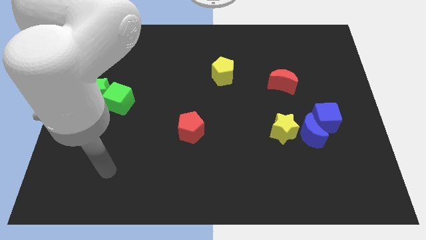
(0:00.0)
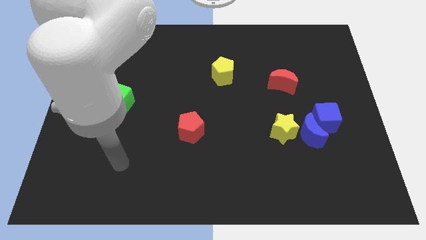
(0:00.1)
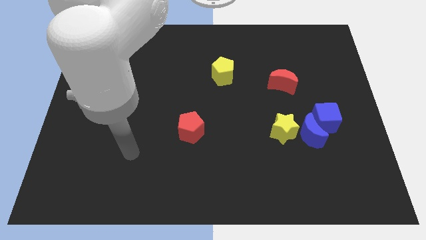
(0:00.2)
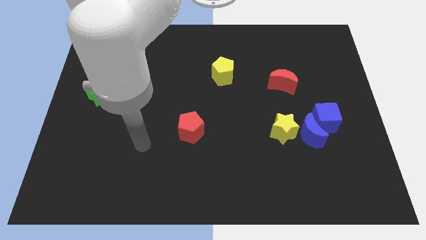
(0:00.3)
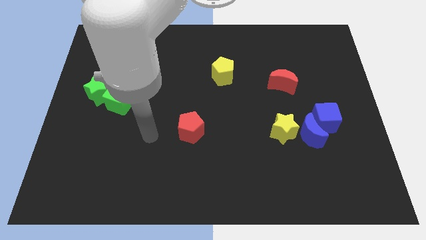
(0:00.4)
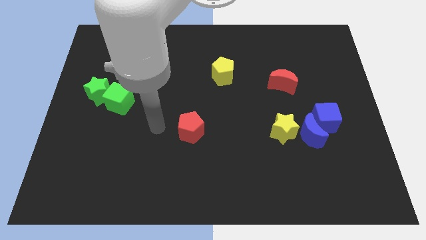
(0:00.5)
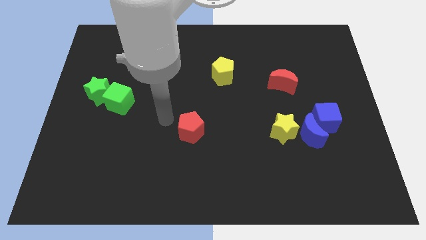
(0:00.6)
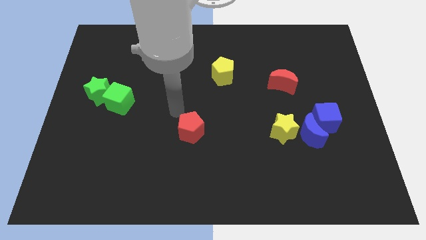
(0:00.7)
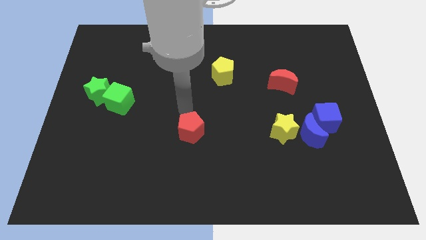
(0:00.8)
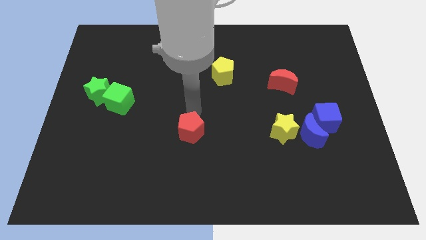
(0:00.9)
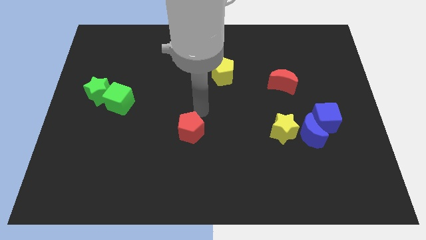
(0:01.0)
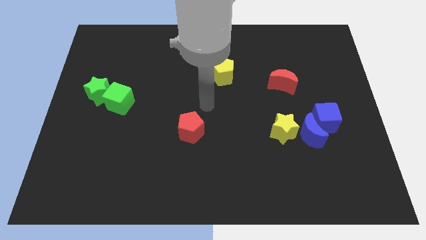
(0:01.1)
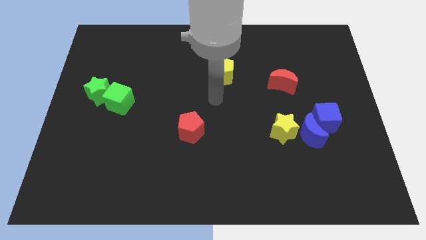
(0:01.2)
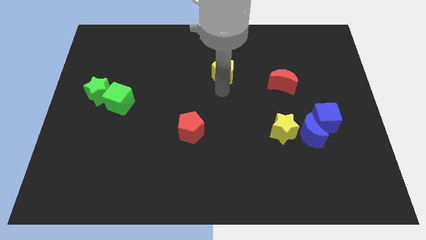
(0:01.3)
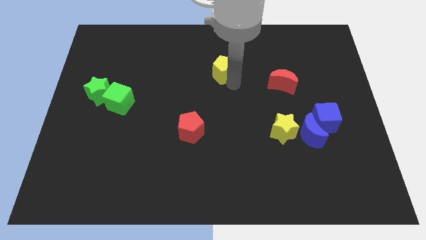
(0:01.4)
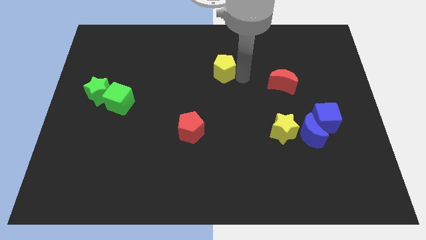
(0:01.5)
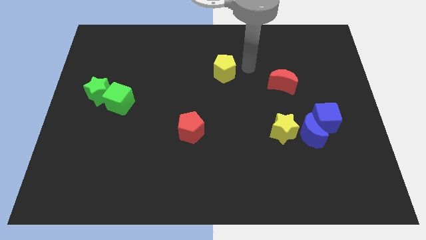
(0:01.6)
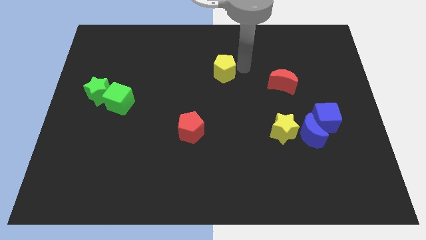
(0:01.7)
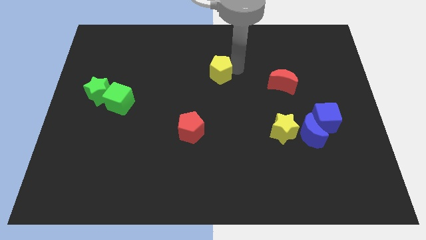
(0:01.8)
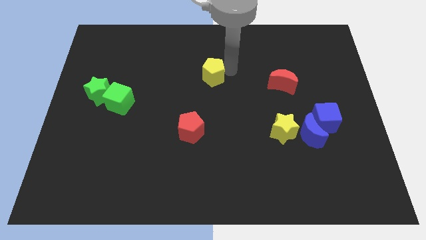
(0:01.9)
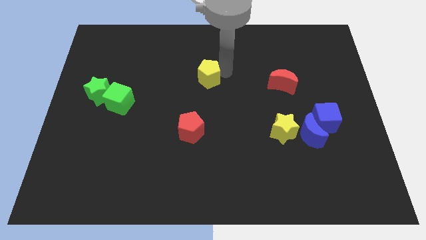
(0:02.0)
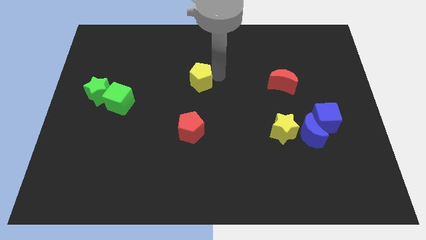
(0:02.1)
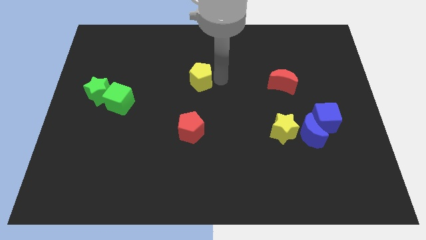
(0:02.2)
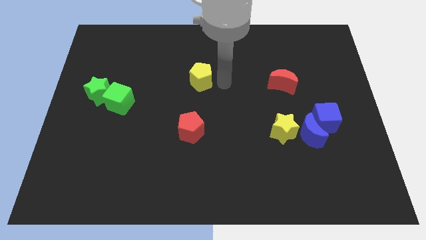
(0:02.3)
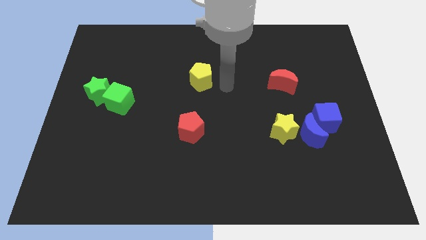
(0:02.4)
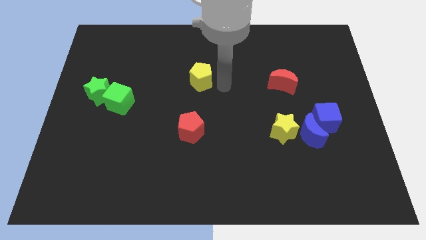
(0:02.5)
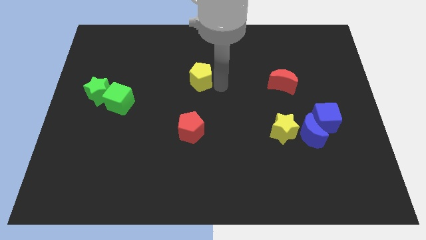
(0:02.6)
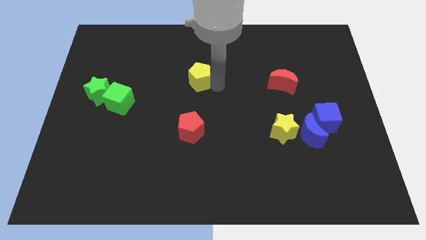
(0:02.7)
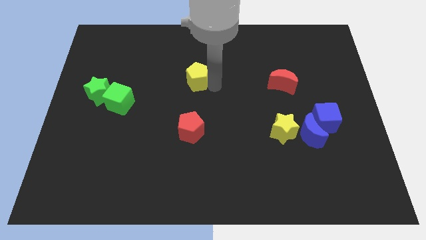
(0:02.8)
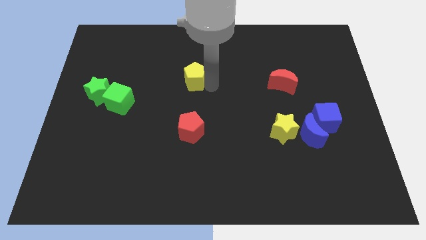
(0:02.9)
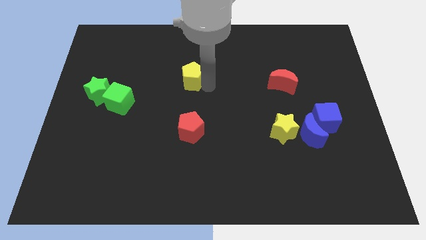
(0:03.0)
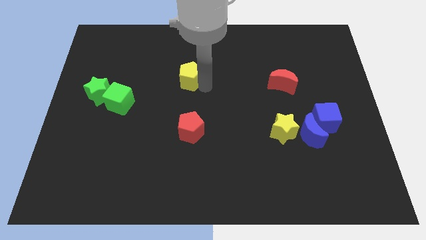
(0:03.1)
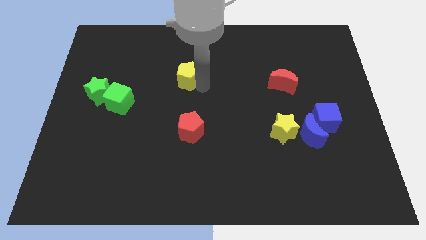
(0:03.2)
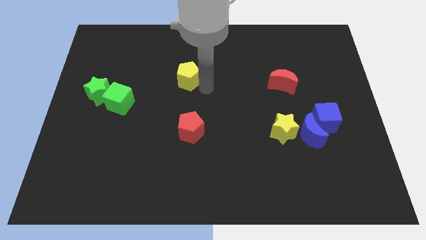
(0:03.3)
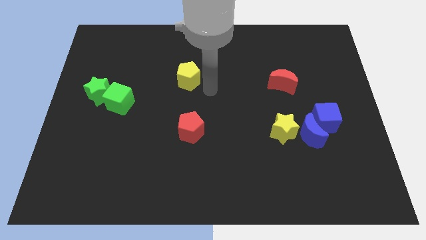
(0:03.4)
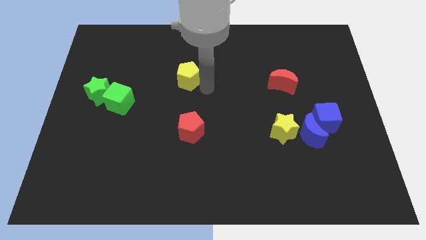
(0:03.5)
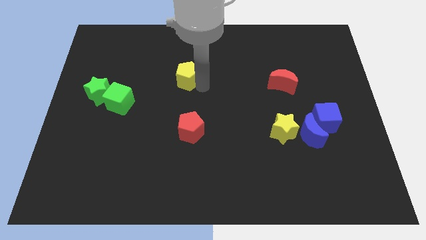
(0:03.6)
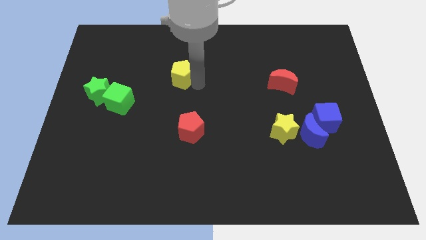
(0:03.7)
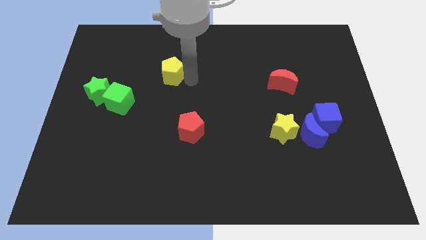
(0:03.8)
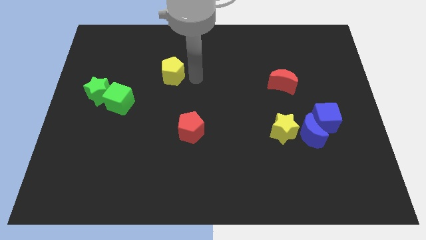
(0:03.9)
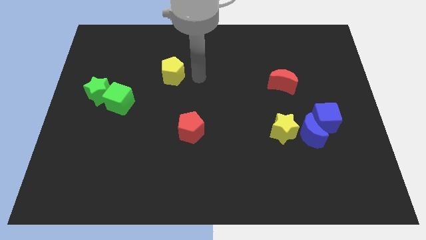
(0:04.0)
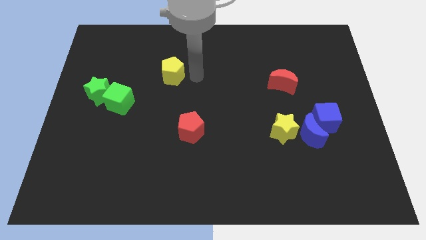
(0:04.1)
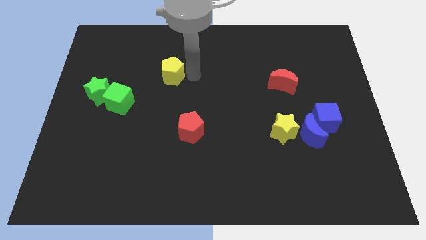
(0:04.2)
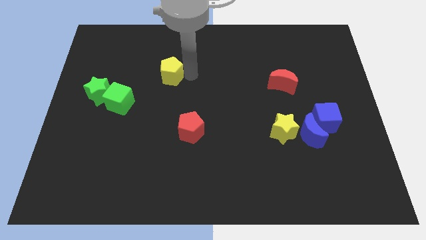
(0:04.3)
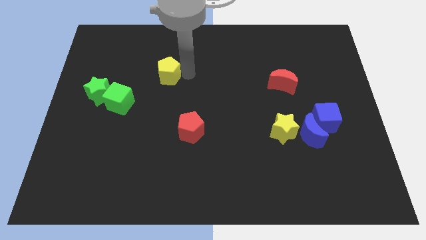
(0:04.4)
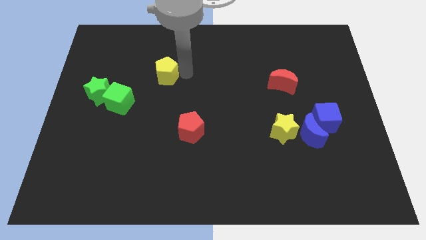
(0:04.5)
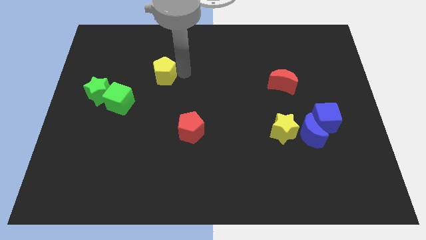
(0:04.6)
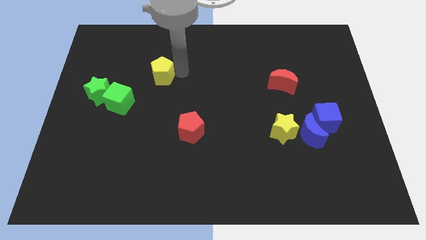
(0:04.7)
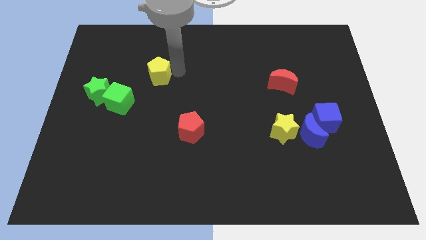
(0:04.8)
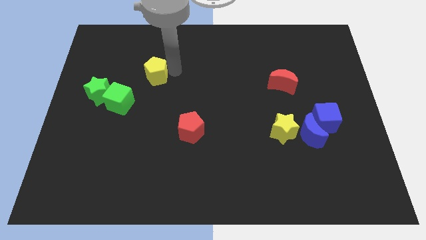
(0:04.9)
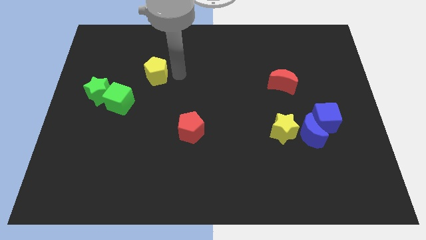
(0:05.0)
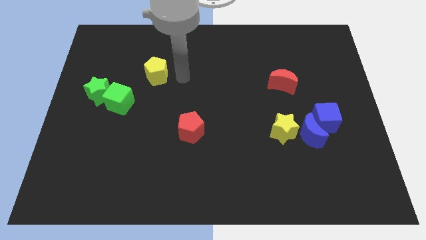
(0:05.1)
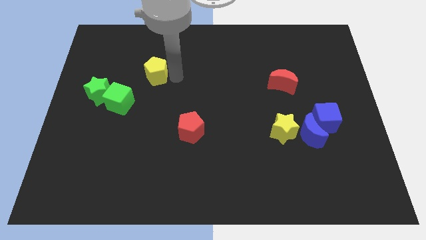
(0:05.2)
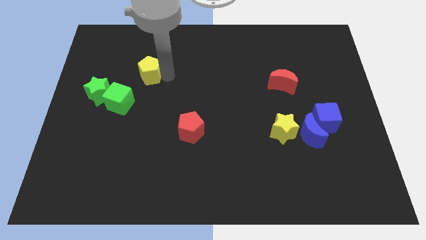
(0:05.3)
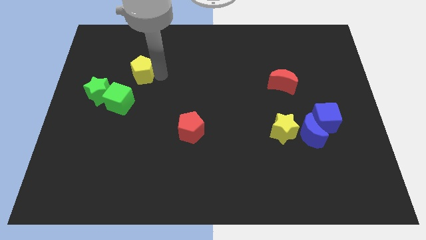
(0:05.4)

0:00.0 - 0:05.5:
push the yellow pentagon above the green cube

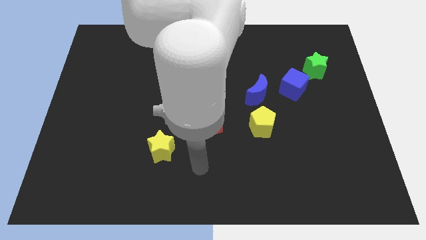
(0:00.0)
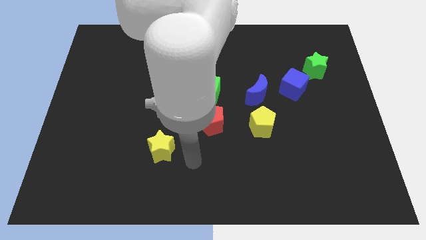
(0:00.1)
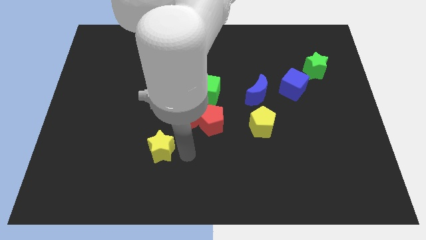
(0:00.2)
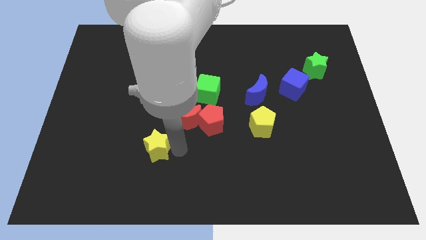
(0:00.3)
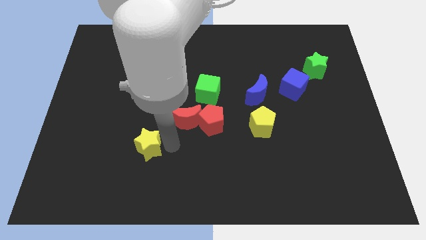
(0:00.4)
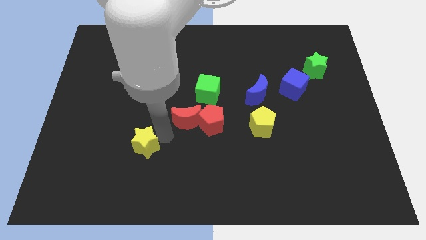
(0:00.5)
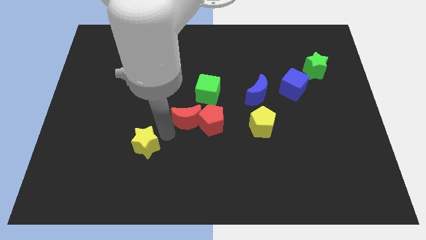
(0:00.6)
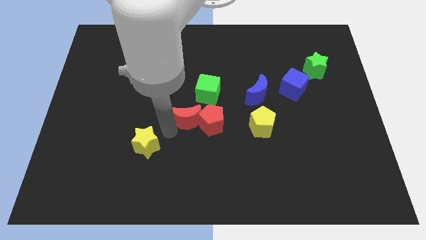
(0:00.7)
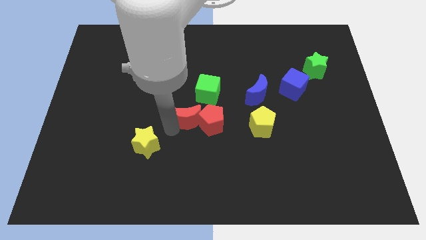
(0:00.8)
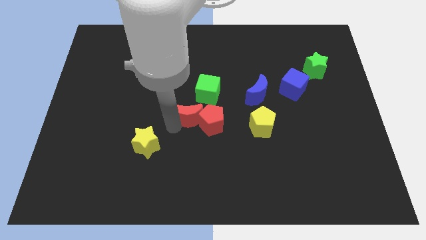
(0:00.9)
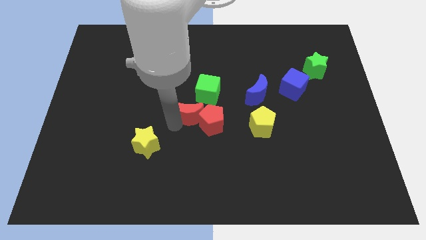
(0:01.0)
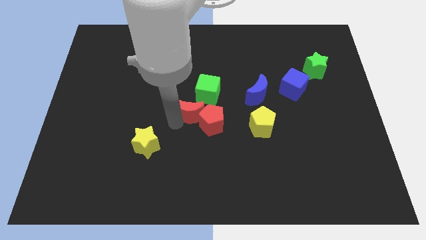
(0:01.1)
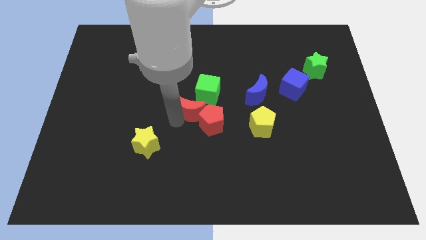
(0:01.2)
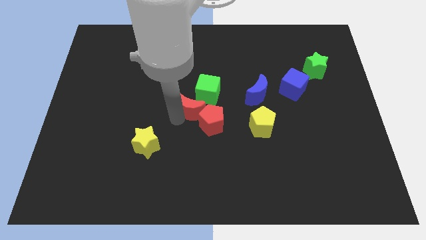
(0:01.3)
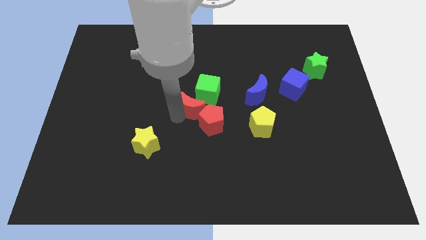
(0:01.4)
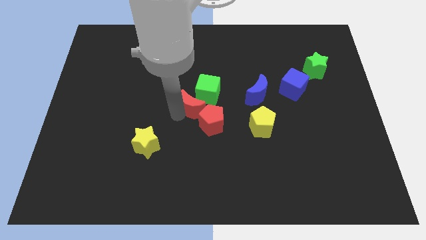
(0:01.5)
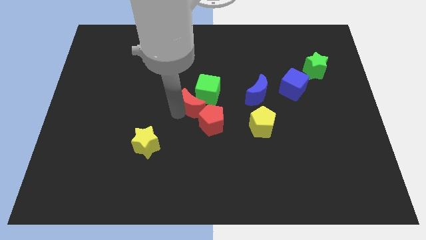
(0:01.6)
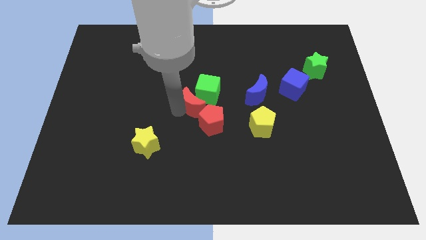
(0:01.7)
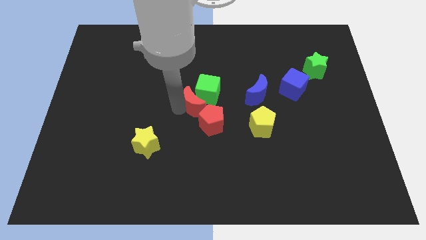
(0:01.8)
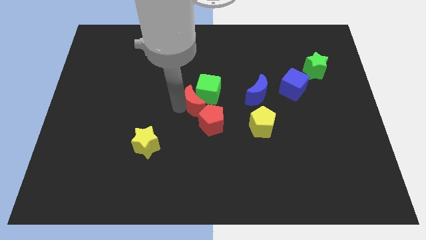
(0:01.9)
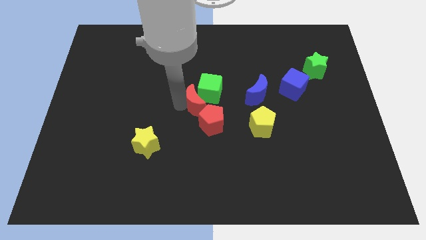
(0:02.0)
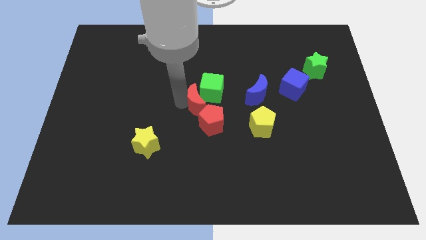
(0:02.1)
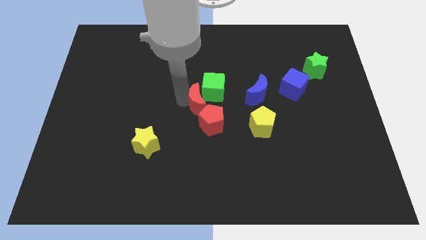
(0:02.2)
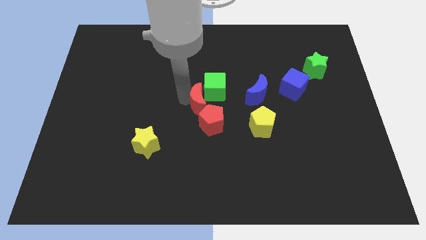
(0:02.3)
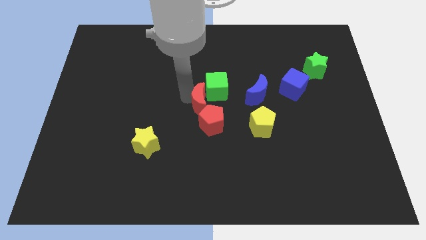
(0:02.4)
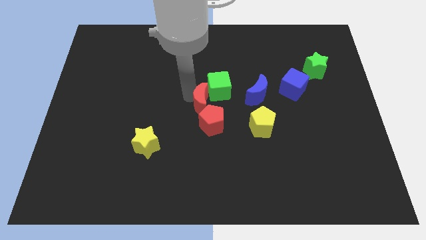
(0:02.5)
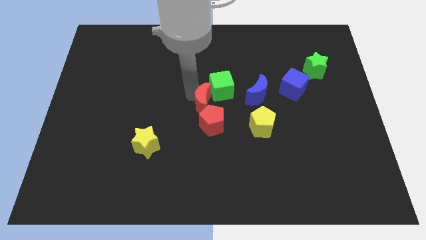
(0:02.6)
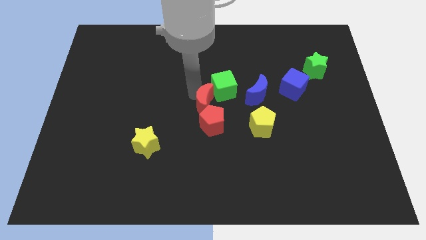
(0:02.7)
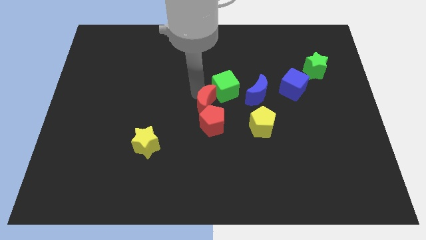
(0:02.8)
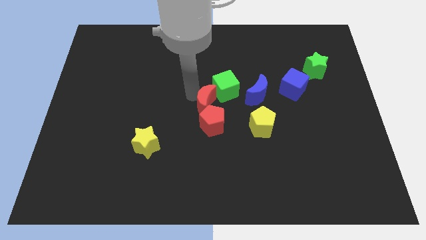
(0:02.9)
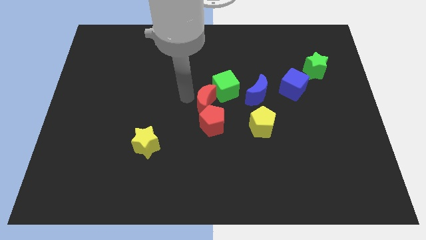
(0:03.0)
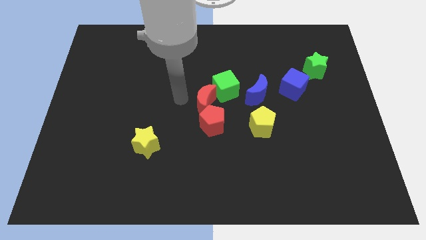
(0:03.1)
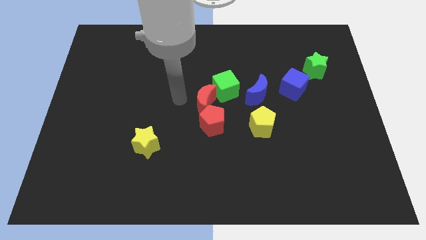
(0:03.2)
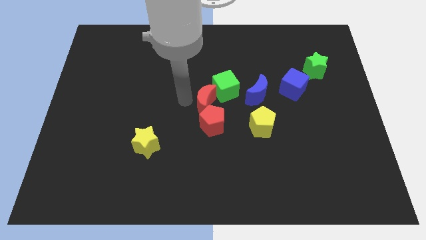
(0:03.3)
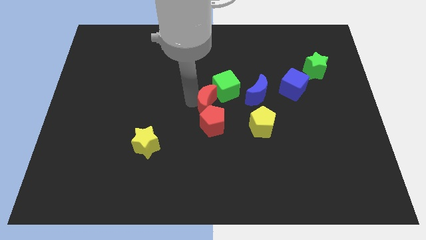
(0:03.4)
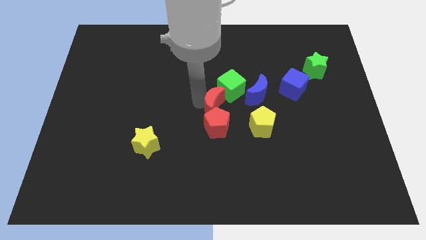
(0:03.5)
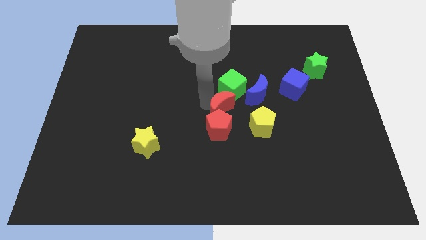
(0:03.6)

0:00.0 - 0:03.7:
slide the red moon diagonally up and to the left of the yellow pentagon
